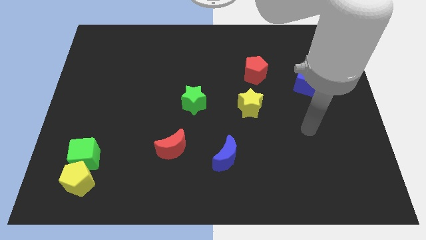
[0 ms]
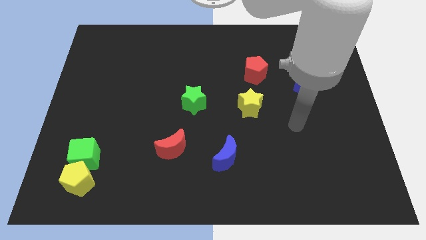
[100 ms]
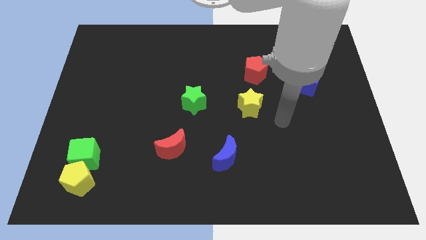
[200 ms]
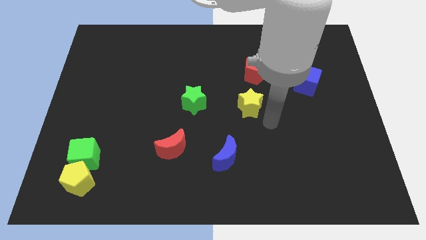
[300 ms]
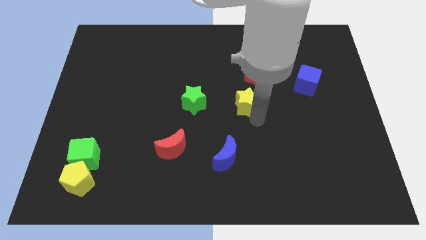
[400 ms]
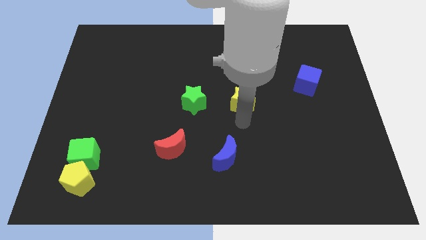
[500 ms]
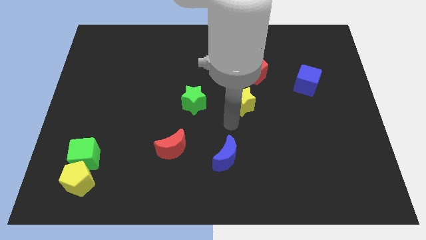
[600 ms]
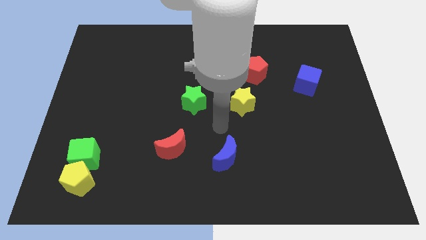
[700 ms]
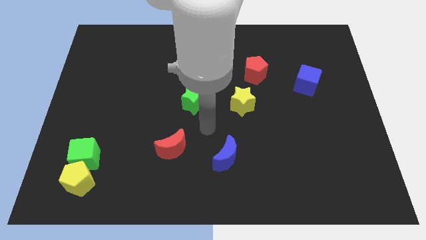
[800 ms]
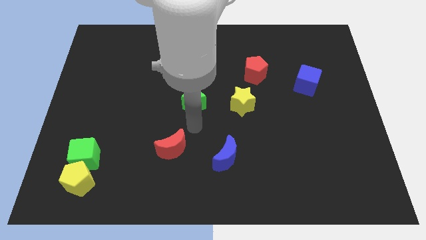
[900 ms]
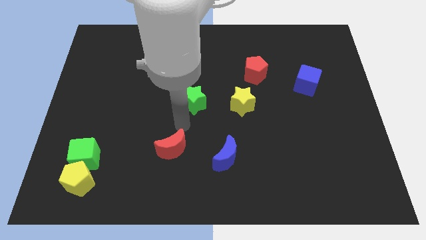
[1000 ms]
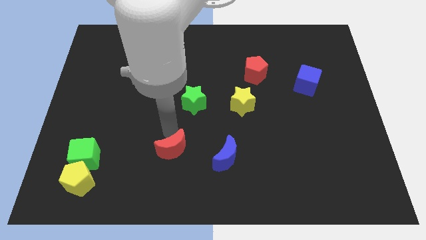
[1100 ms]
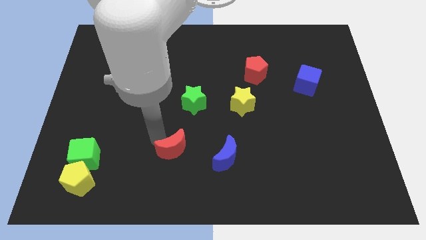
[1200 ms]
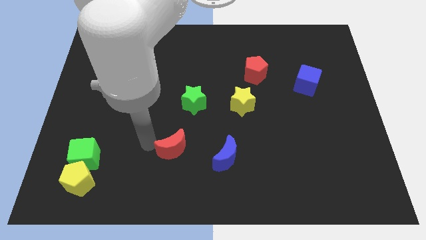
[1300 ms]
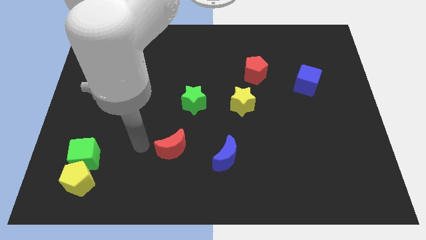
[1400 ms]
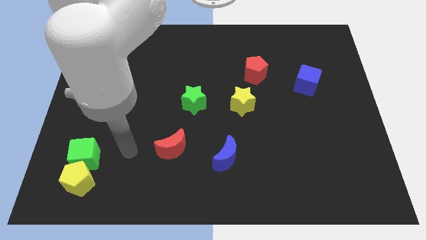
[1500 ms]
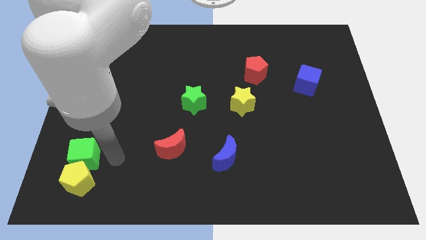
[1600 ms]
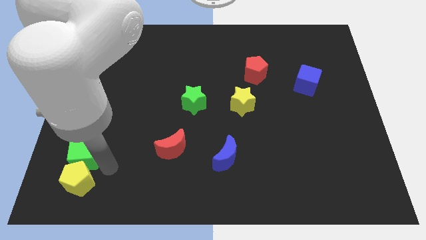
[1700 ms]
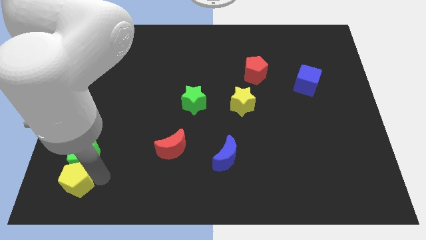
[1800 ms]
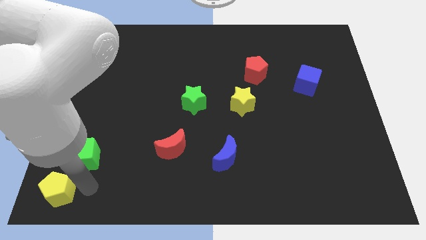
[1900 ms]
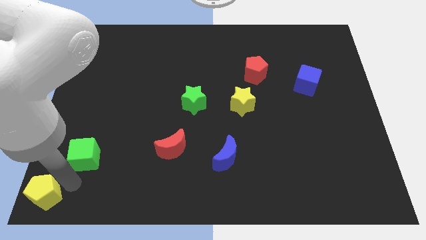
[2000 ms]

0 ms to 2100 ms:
separate the green cube from the yellow pentagon

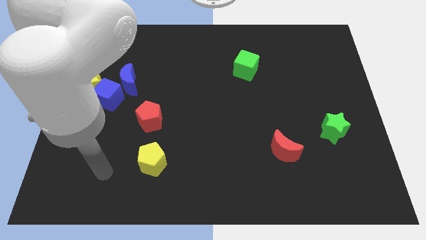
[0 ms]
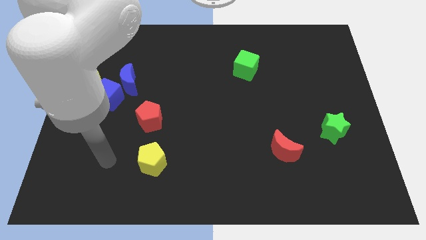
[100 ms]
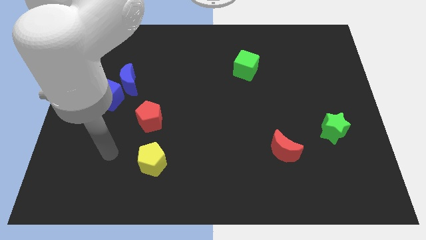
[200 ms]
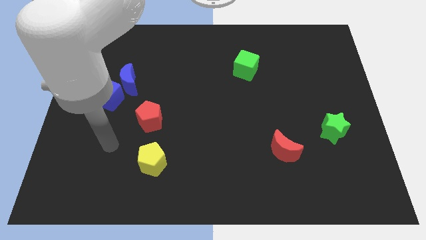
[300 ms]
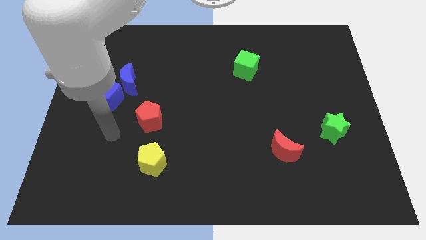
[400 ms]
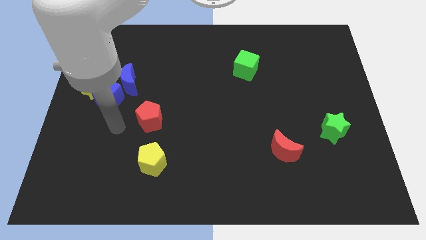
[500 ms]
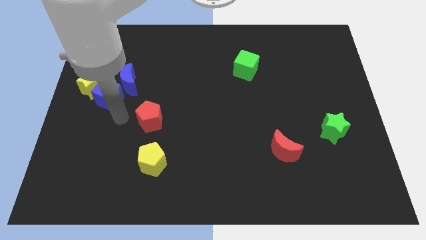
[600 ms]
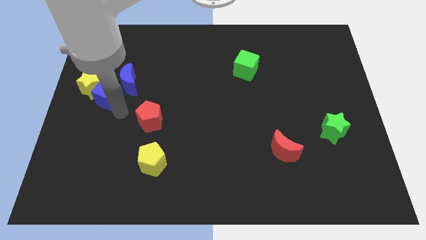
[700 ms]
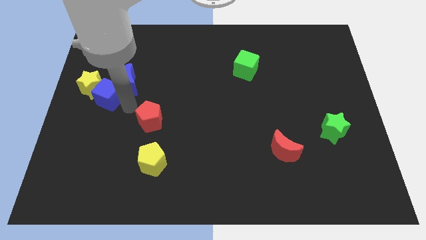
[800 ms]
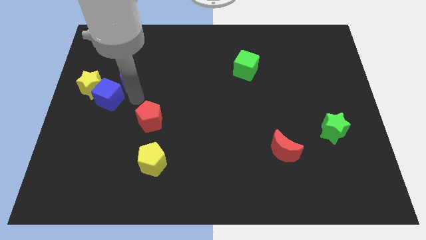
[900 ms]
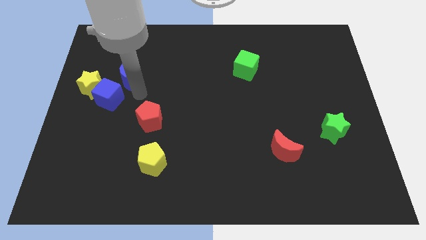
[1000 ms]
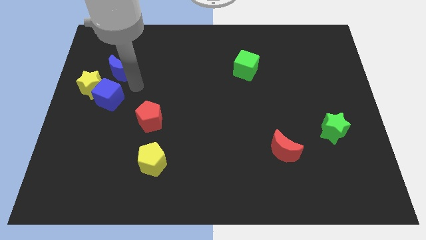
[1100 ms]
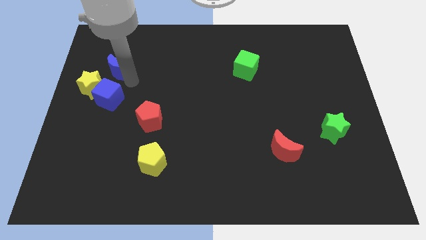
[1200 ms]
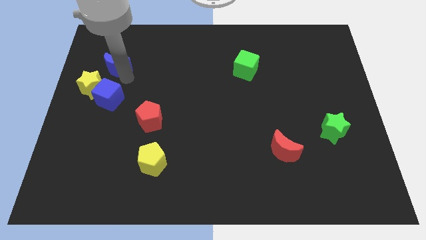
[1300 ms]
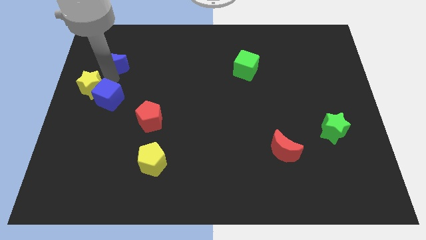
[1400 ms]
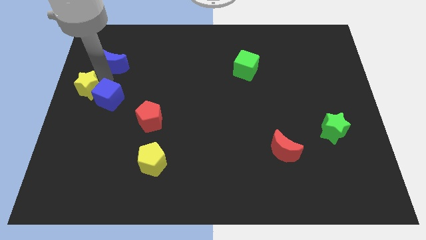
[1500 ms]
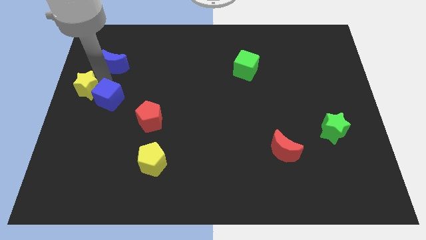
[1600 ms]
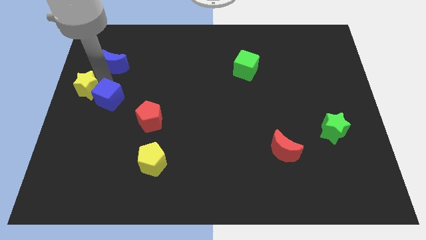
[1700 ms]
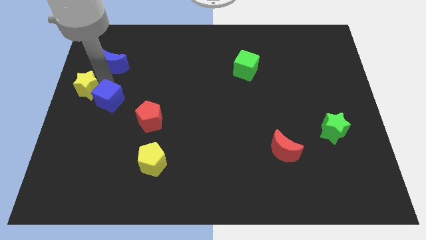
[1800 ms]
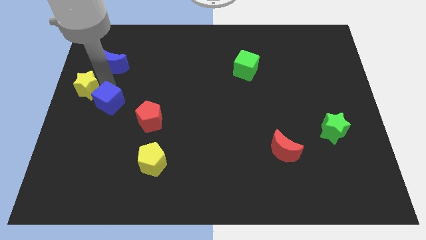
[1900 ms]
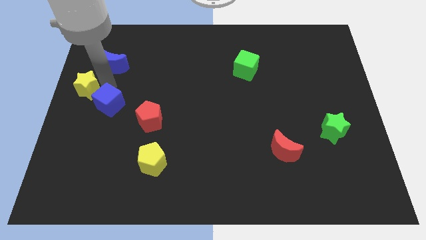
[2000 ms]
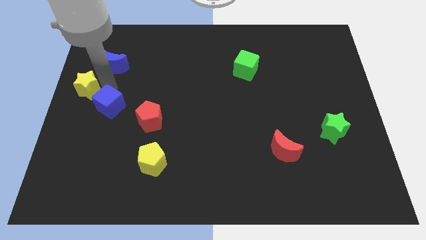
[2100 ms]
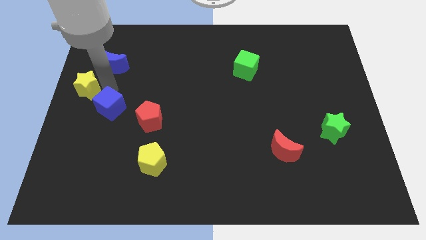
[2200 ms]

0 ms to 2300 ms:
move the blue cube away from the yellow star and blue moon

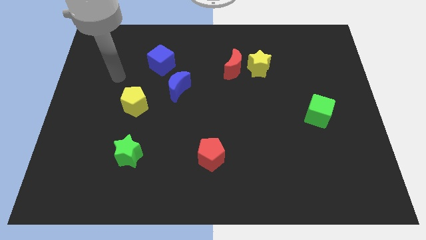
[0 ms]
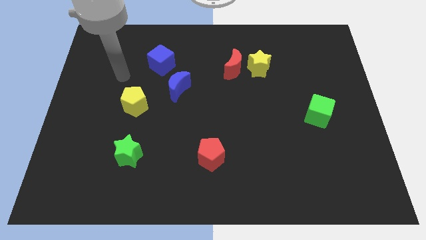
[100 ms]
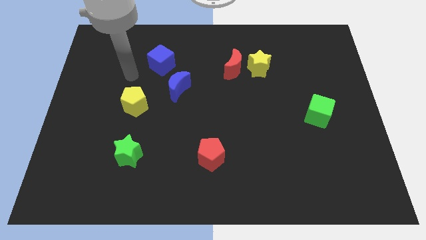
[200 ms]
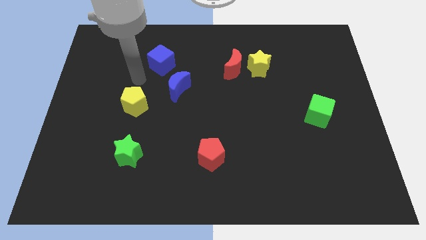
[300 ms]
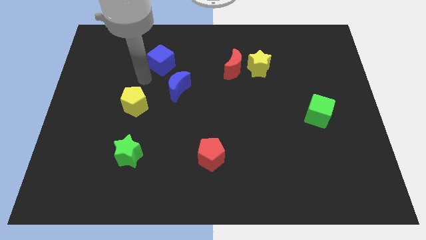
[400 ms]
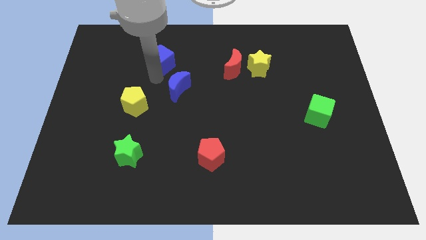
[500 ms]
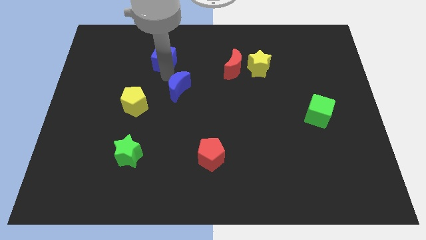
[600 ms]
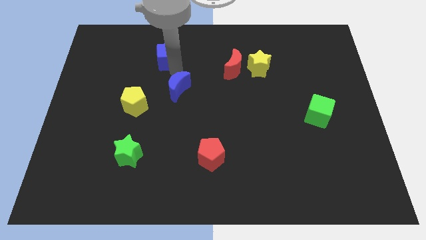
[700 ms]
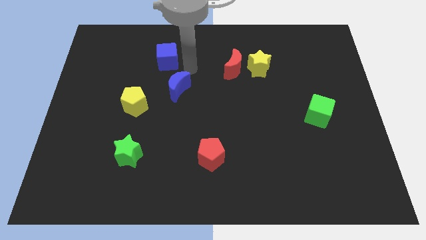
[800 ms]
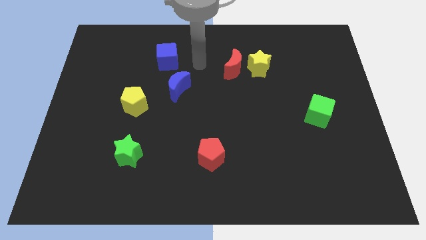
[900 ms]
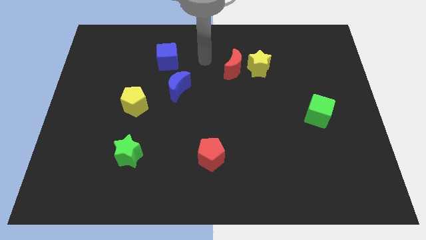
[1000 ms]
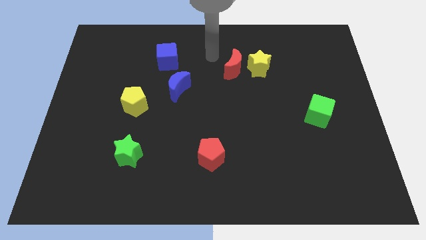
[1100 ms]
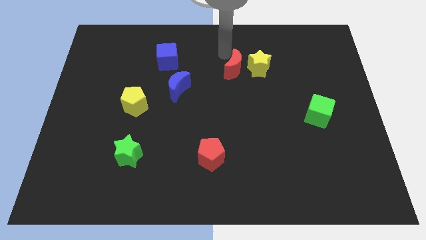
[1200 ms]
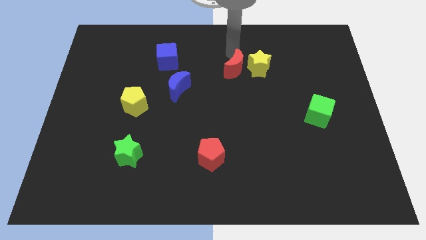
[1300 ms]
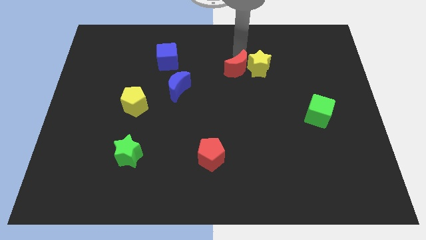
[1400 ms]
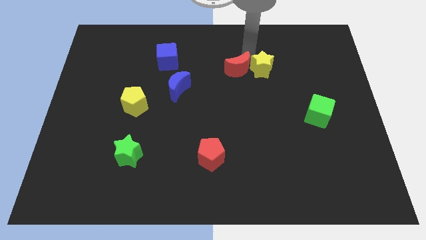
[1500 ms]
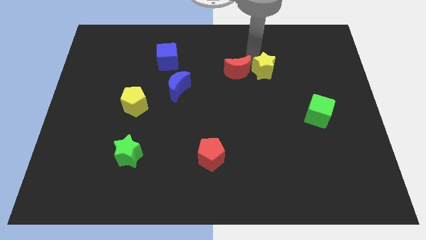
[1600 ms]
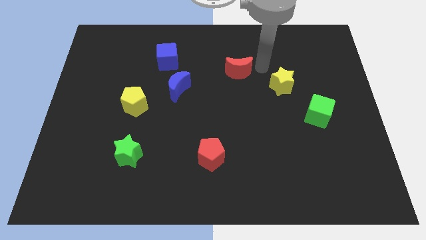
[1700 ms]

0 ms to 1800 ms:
pull the red moon apart from the yellow star

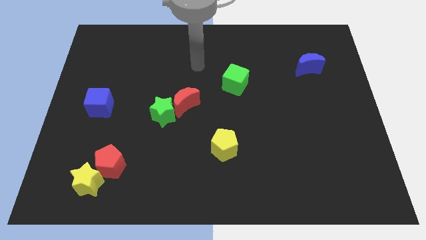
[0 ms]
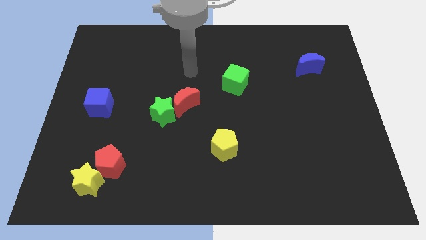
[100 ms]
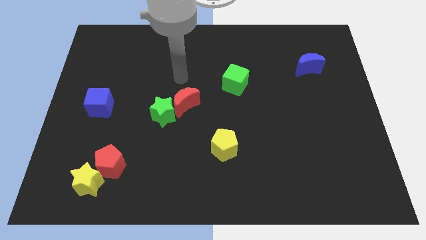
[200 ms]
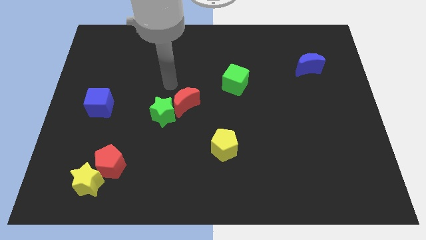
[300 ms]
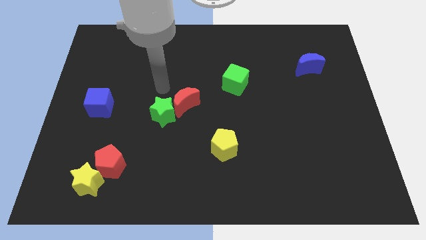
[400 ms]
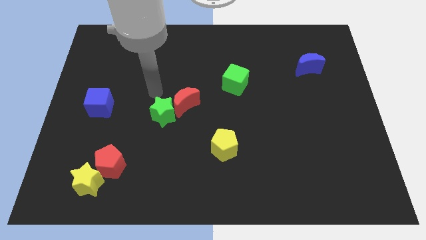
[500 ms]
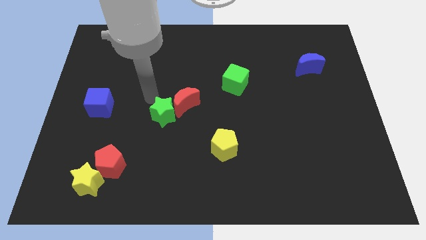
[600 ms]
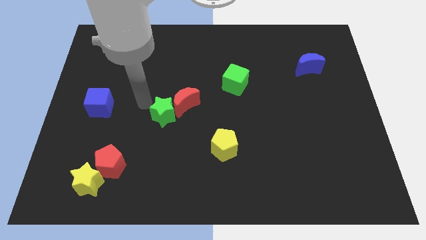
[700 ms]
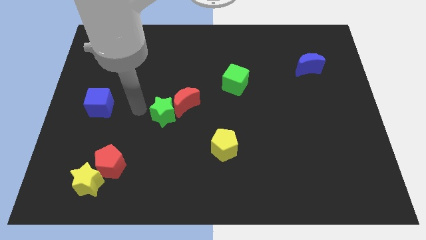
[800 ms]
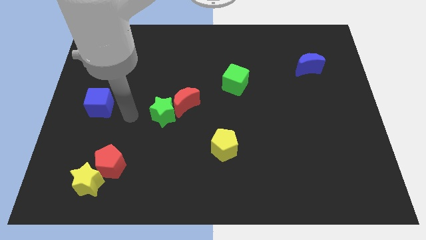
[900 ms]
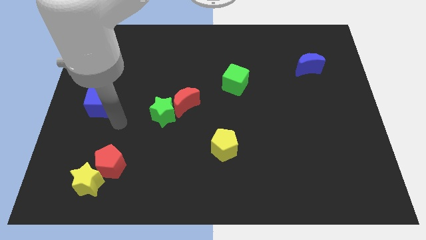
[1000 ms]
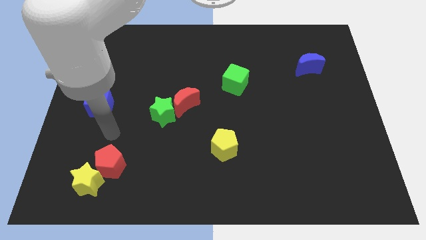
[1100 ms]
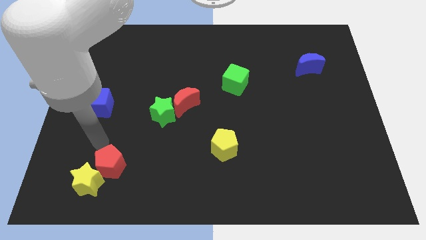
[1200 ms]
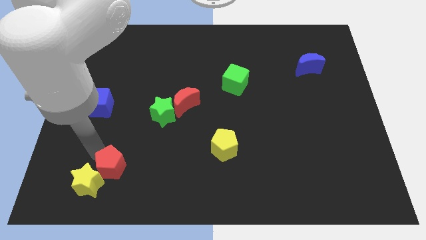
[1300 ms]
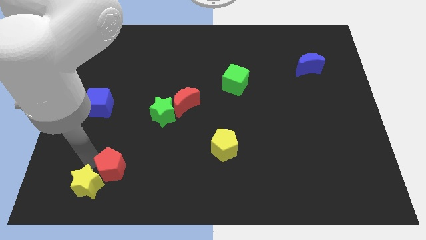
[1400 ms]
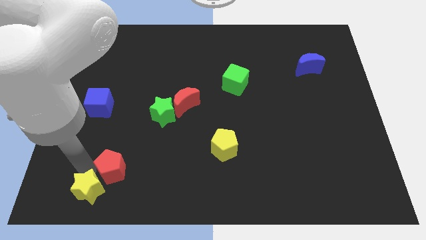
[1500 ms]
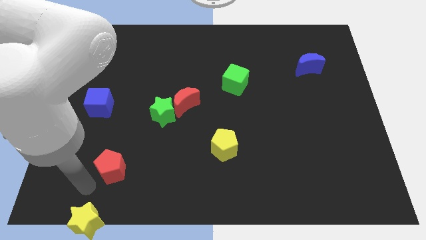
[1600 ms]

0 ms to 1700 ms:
separate the red pentagon from the yellow star

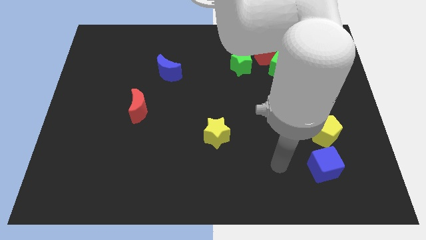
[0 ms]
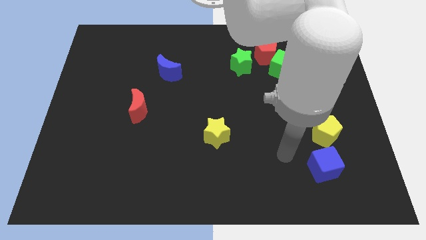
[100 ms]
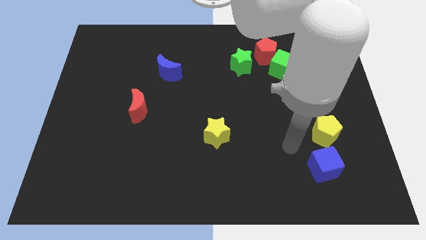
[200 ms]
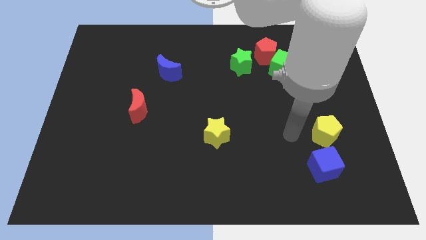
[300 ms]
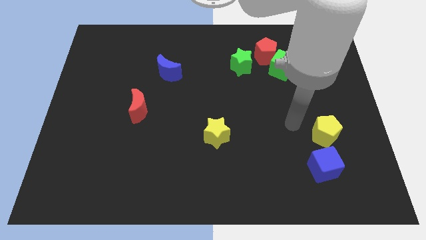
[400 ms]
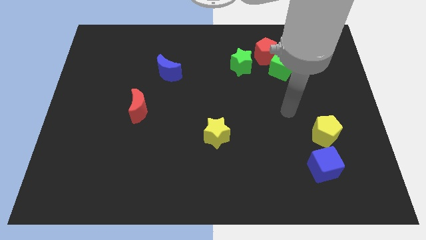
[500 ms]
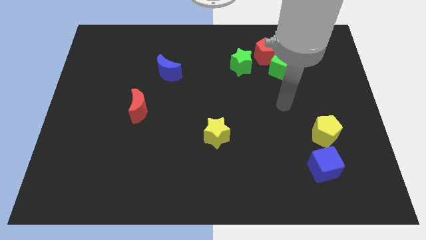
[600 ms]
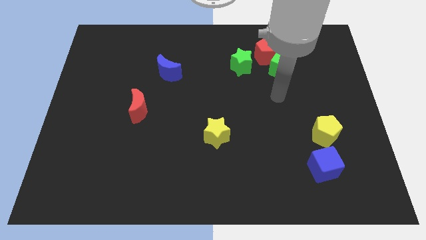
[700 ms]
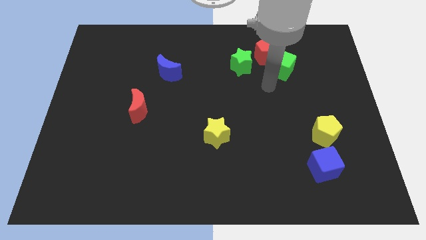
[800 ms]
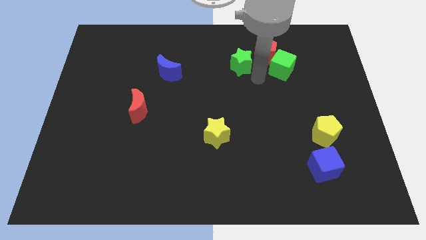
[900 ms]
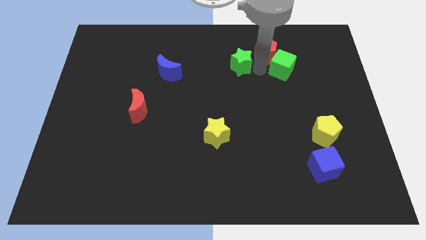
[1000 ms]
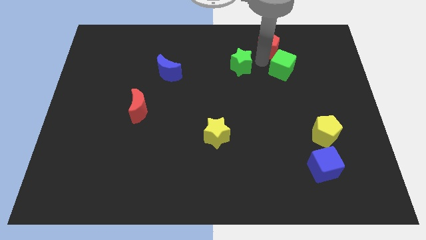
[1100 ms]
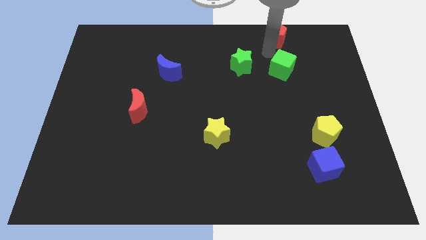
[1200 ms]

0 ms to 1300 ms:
separate the green cube from the red pentagon
